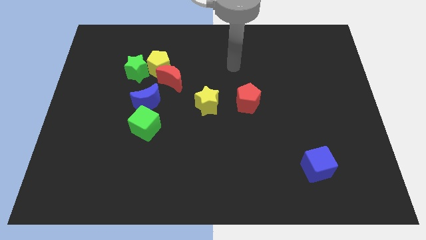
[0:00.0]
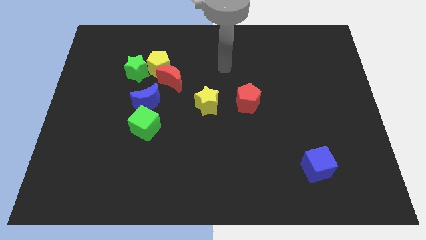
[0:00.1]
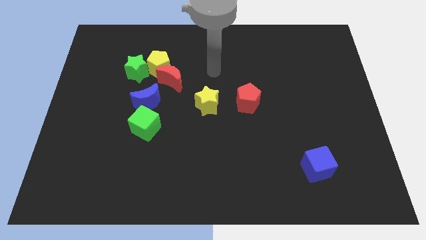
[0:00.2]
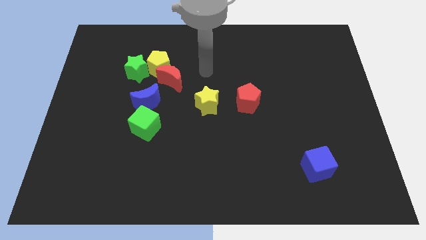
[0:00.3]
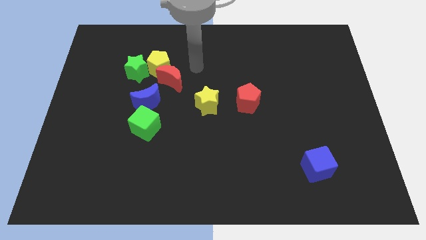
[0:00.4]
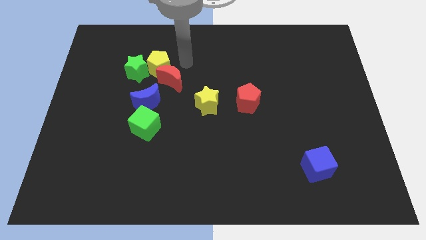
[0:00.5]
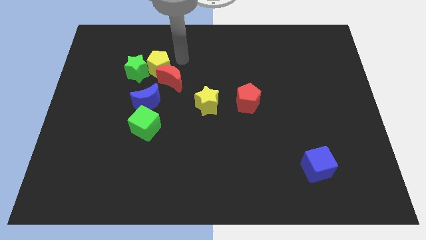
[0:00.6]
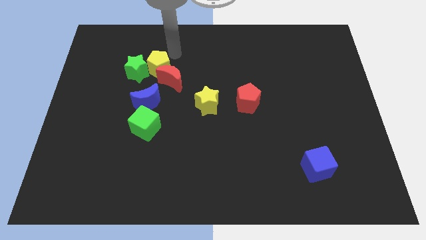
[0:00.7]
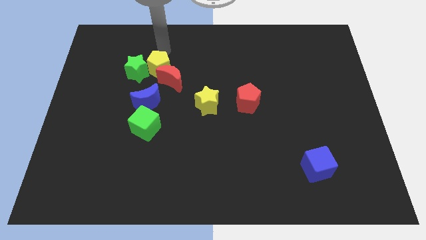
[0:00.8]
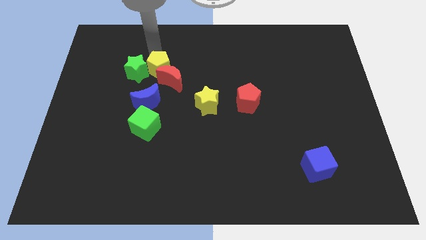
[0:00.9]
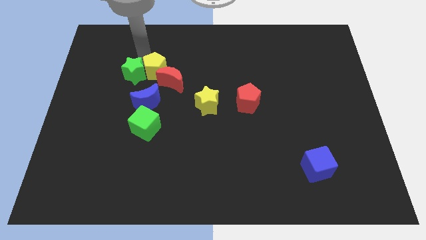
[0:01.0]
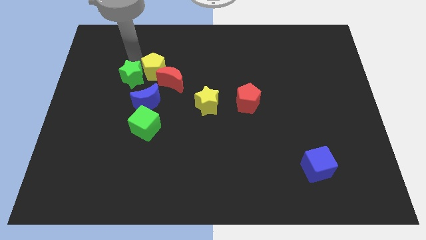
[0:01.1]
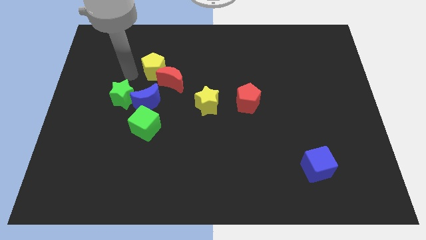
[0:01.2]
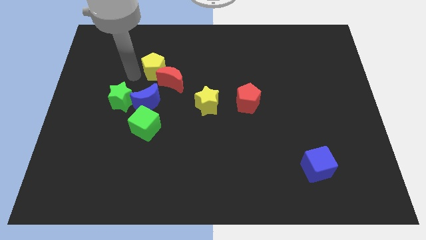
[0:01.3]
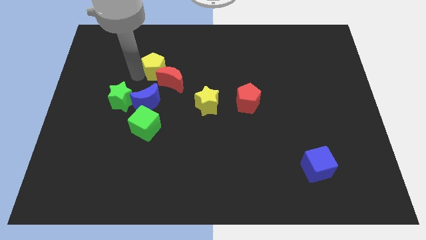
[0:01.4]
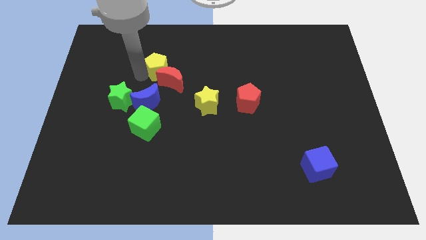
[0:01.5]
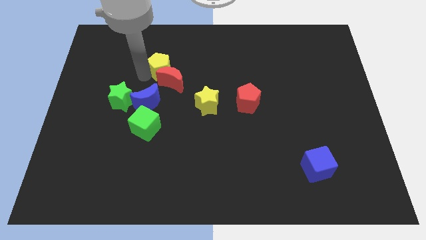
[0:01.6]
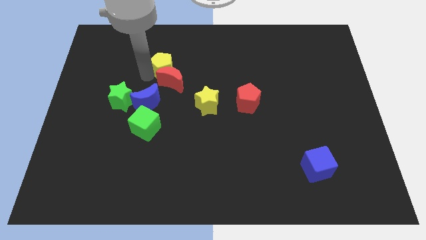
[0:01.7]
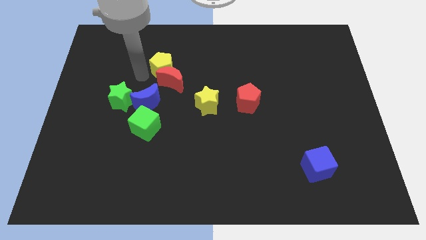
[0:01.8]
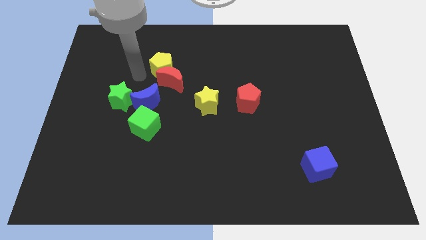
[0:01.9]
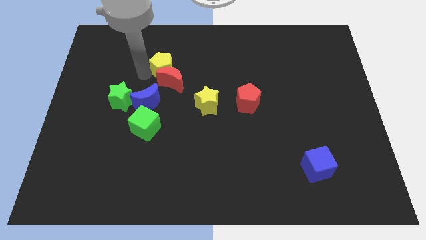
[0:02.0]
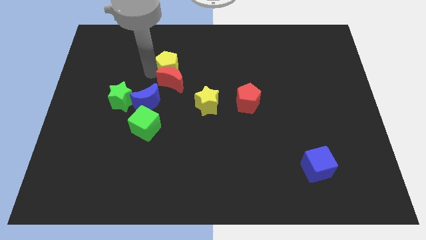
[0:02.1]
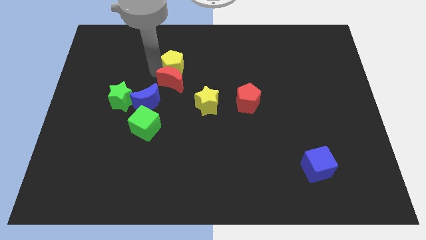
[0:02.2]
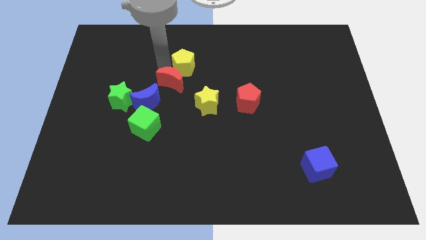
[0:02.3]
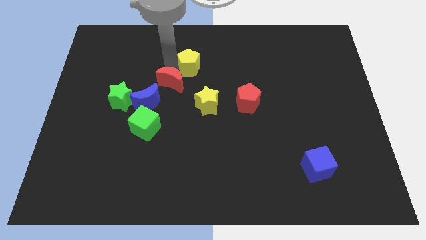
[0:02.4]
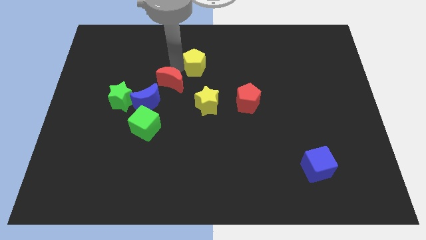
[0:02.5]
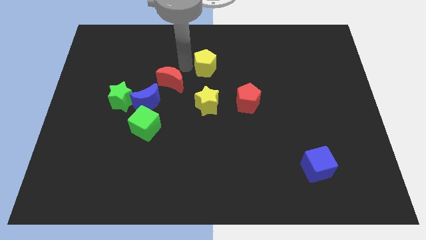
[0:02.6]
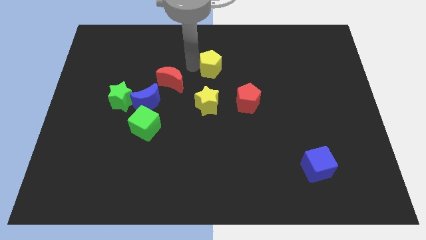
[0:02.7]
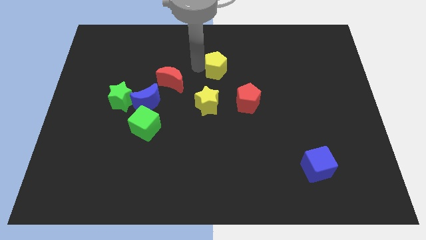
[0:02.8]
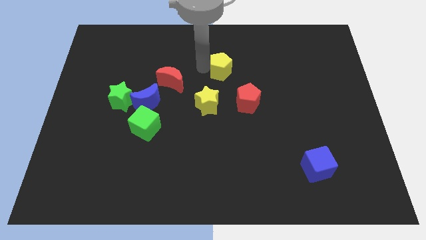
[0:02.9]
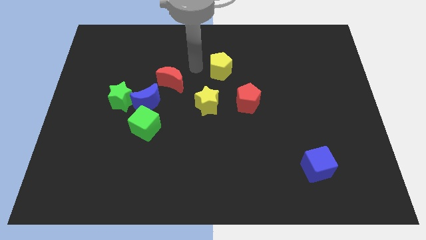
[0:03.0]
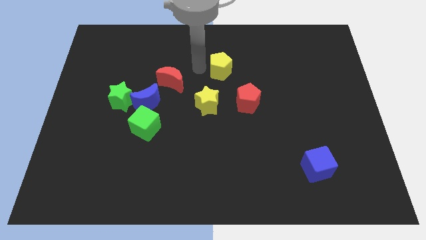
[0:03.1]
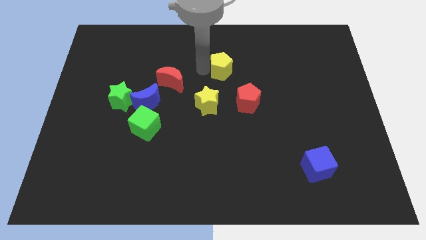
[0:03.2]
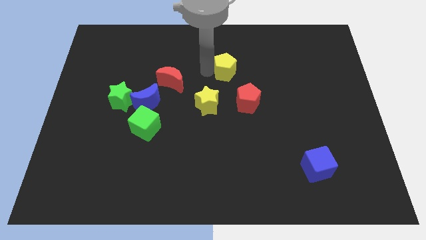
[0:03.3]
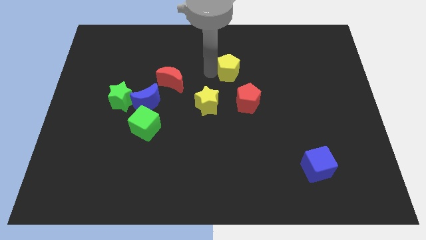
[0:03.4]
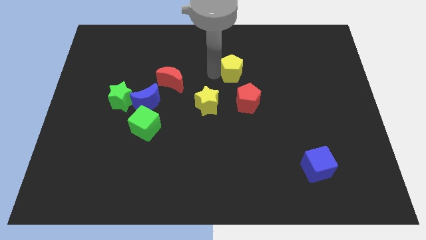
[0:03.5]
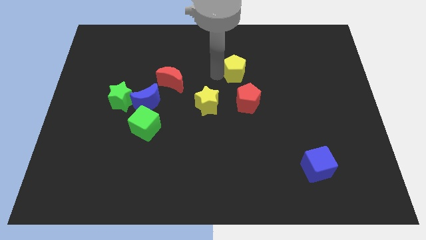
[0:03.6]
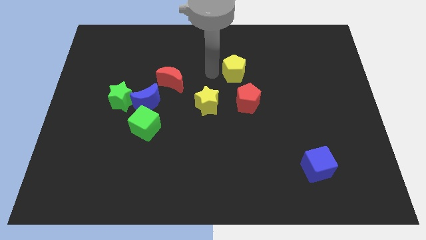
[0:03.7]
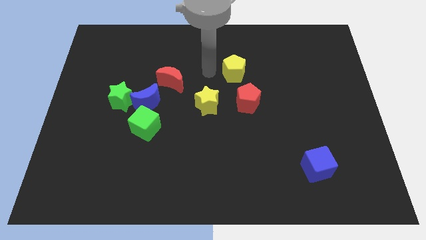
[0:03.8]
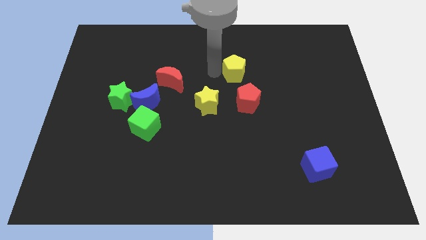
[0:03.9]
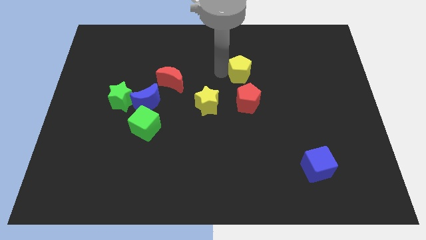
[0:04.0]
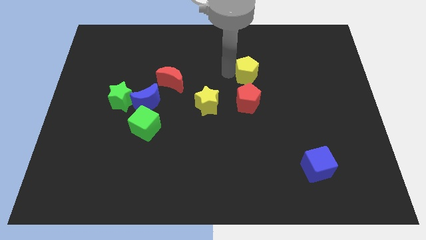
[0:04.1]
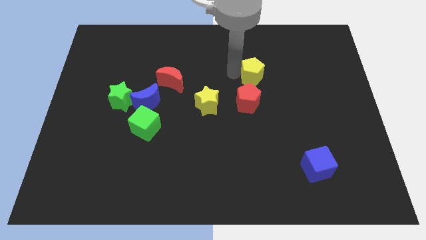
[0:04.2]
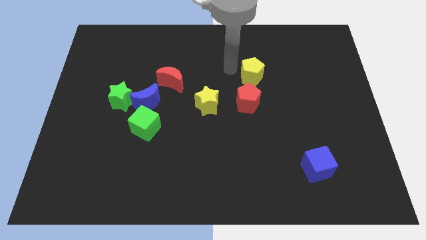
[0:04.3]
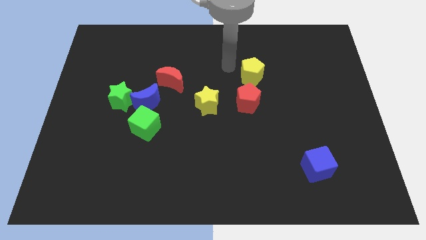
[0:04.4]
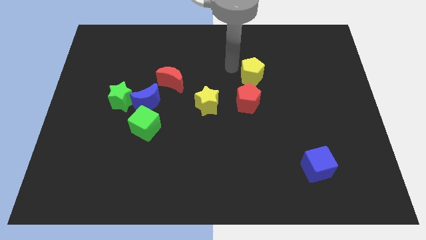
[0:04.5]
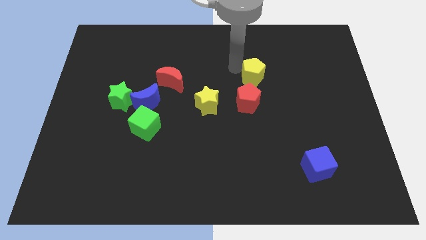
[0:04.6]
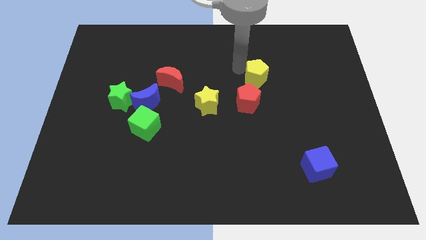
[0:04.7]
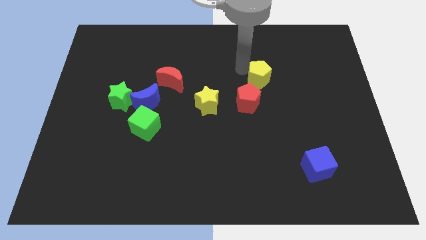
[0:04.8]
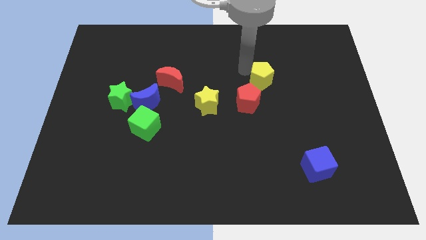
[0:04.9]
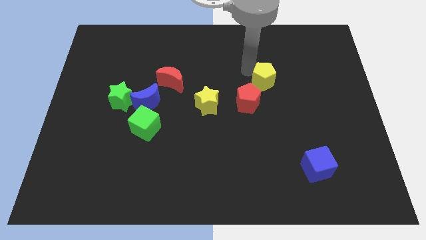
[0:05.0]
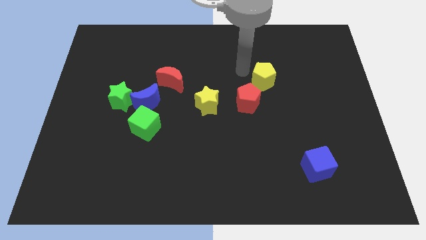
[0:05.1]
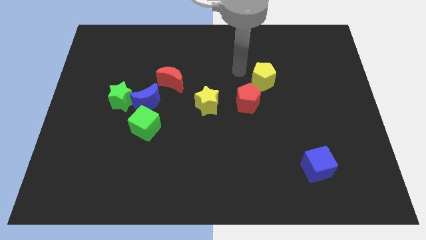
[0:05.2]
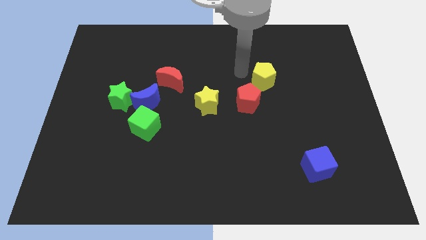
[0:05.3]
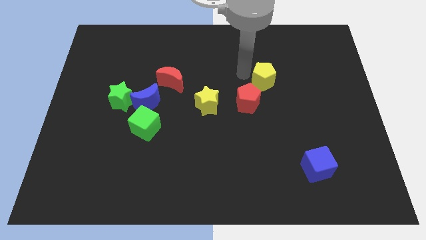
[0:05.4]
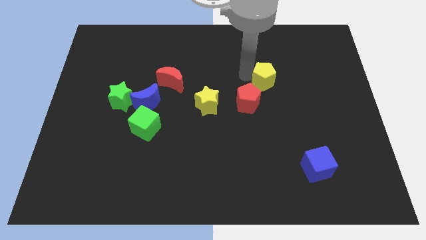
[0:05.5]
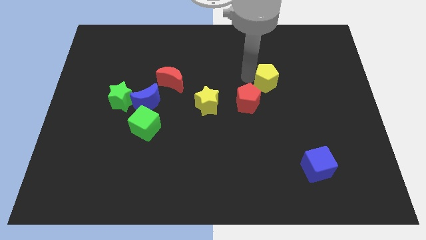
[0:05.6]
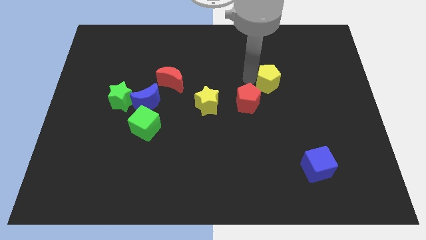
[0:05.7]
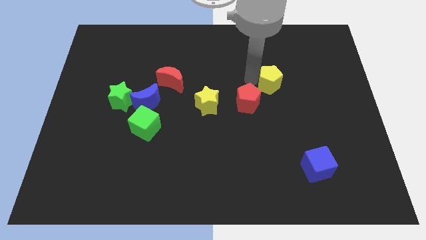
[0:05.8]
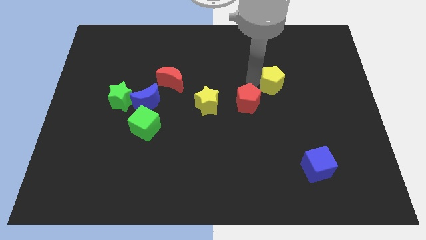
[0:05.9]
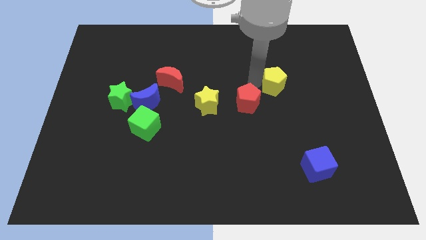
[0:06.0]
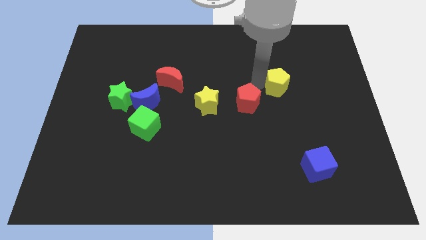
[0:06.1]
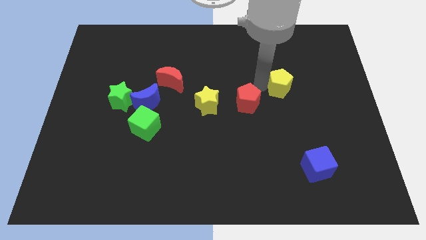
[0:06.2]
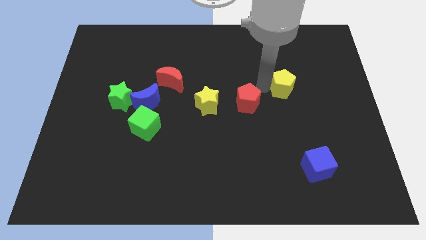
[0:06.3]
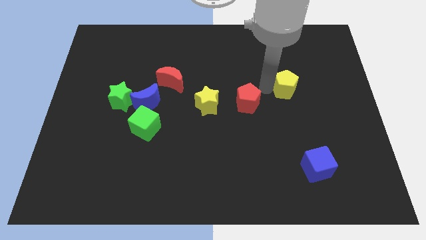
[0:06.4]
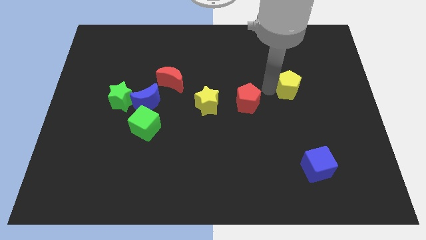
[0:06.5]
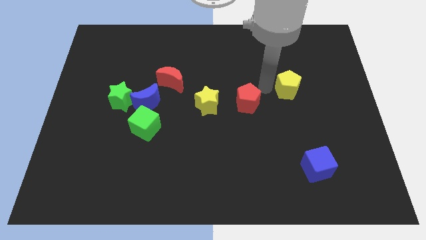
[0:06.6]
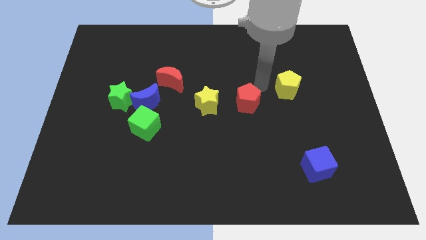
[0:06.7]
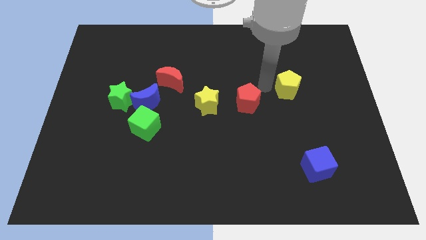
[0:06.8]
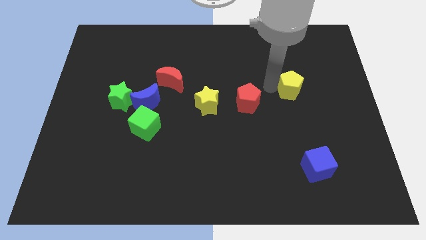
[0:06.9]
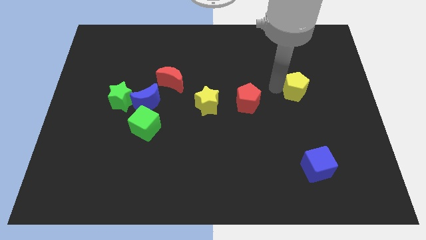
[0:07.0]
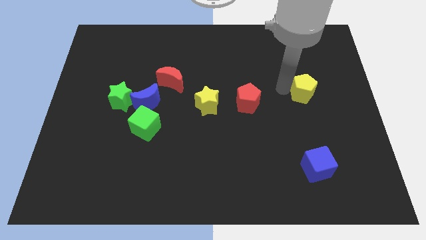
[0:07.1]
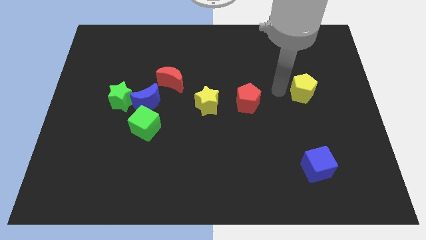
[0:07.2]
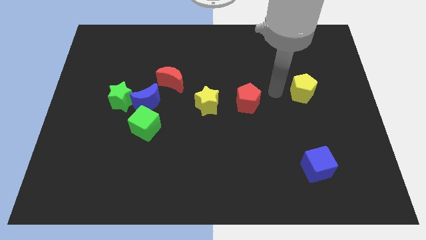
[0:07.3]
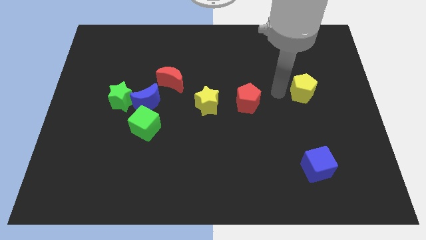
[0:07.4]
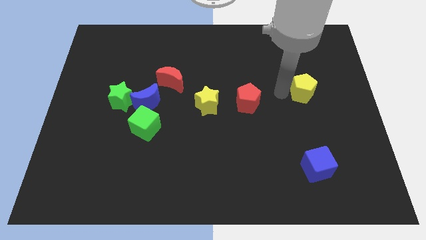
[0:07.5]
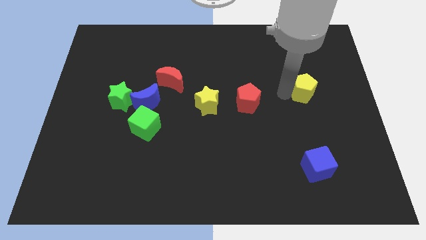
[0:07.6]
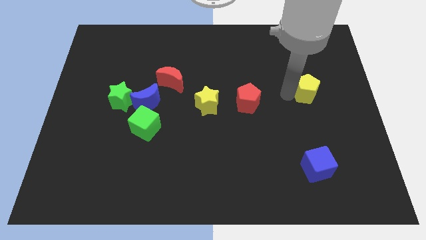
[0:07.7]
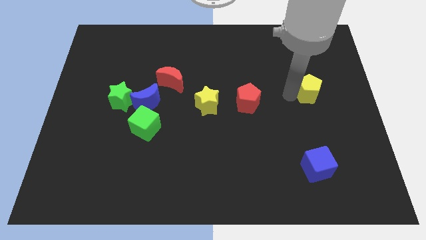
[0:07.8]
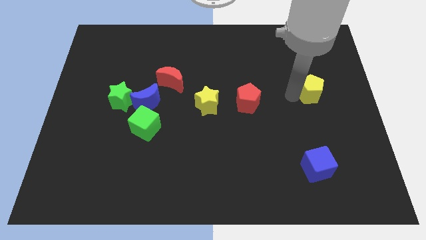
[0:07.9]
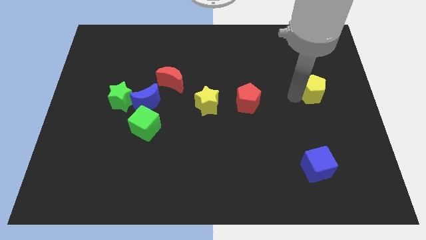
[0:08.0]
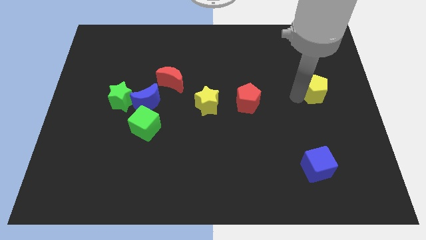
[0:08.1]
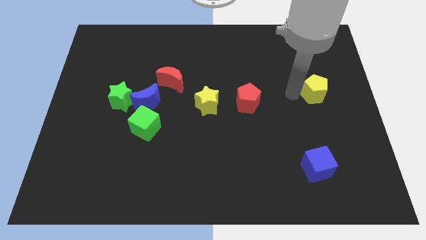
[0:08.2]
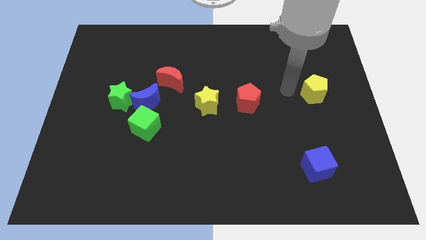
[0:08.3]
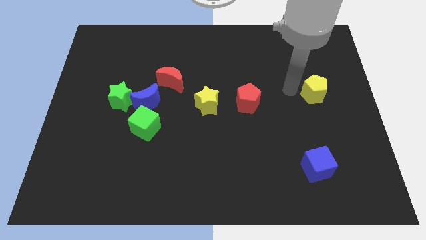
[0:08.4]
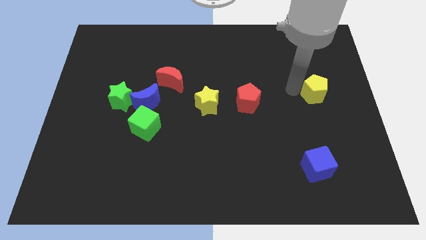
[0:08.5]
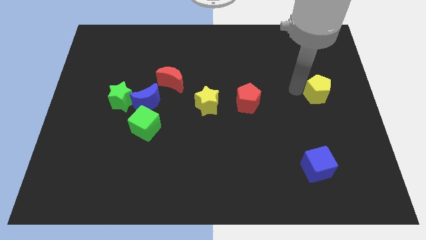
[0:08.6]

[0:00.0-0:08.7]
slide the yellow pentagon to the right side
